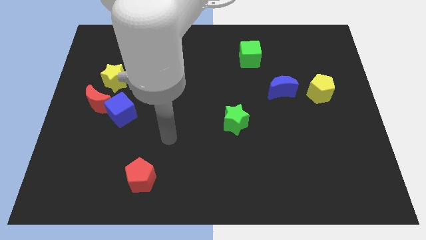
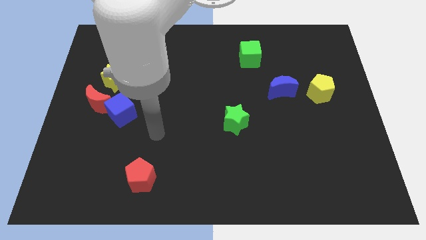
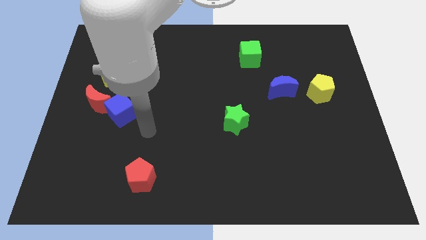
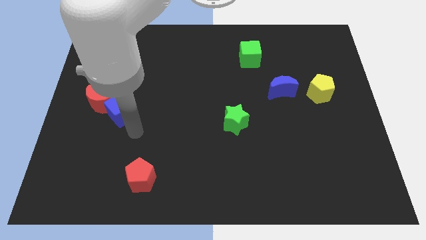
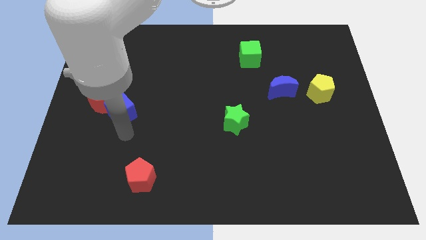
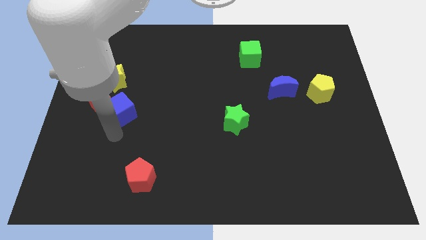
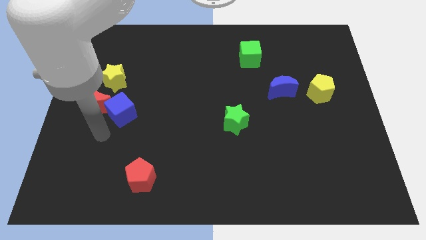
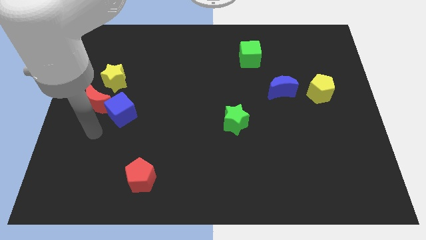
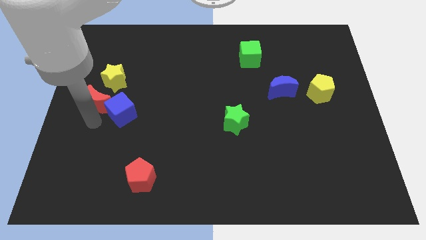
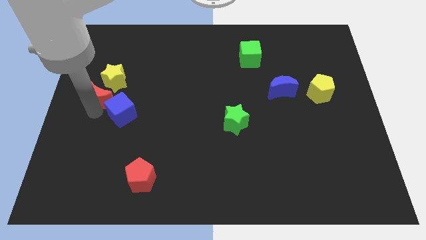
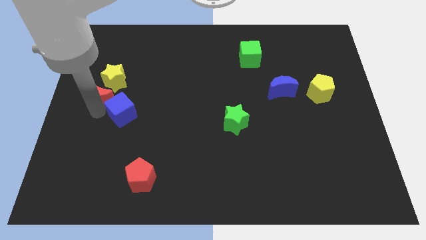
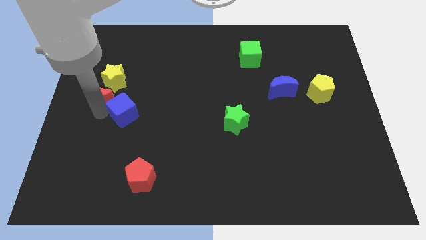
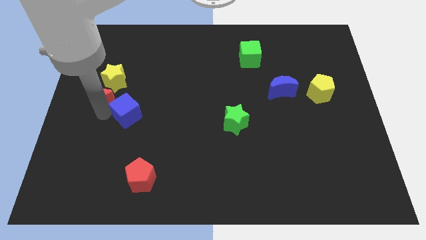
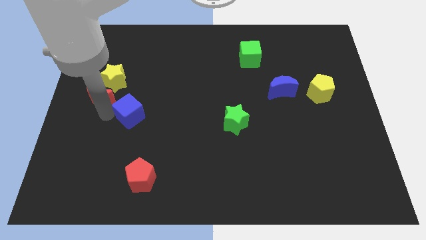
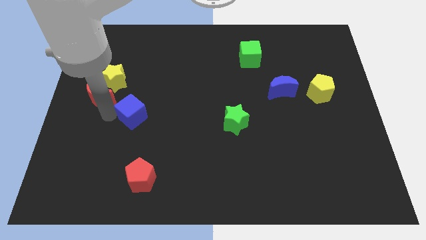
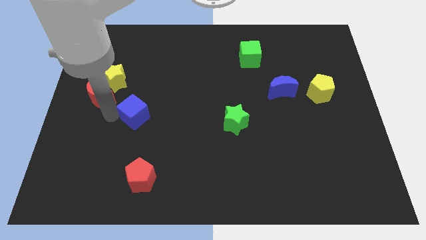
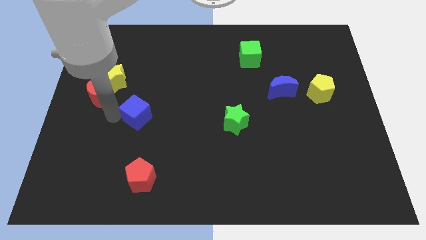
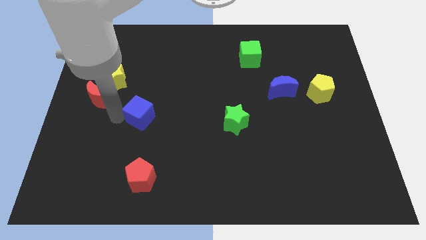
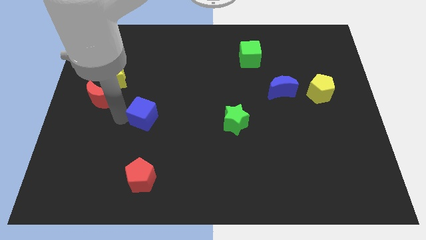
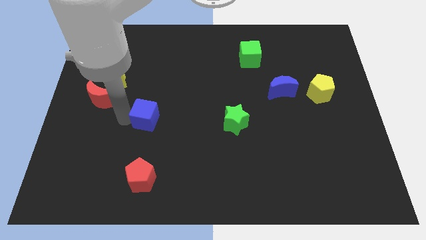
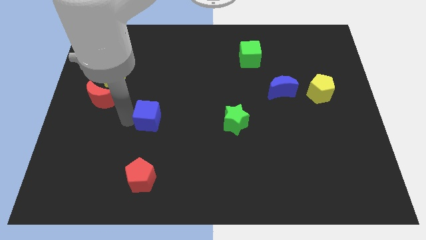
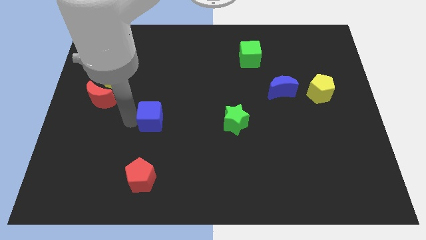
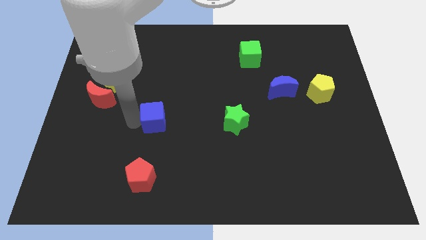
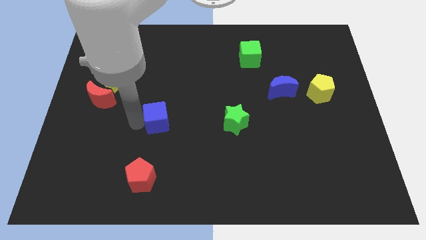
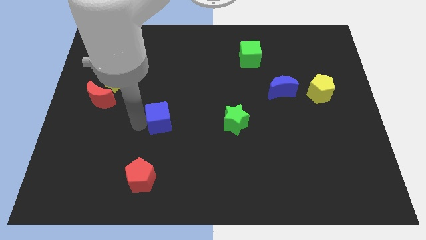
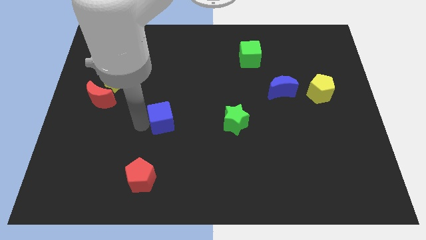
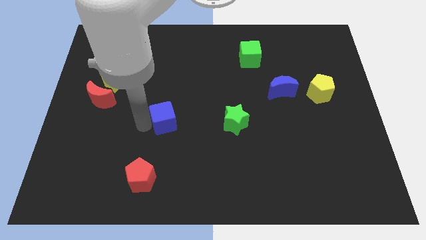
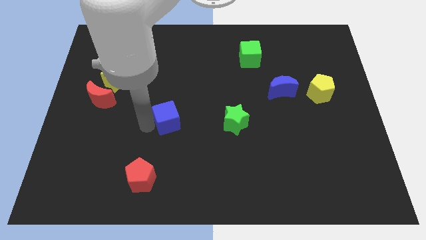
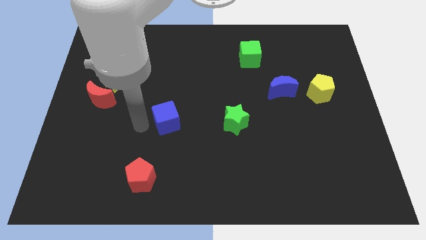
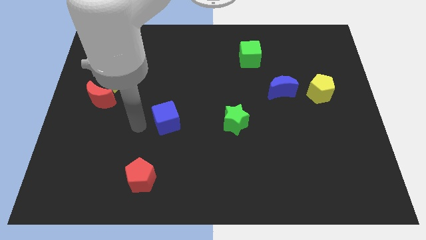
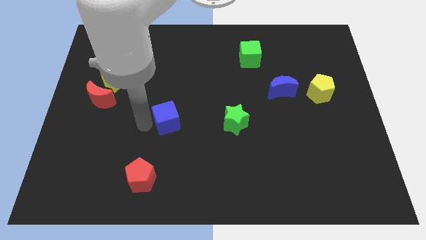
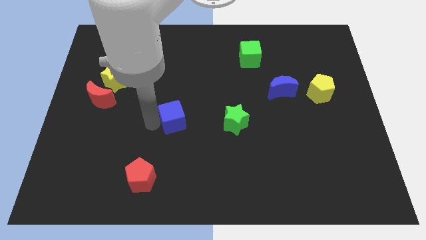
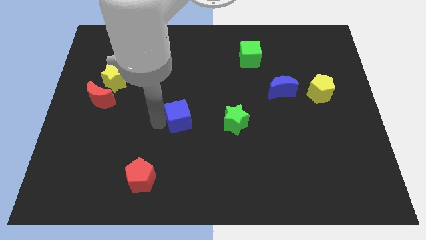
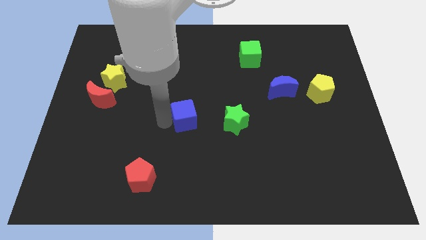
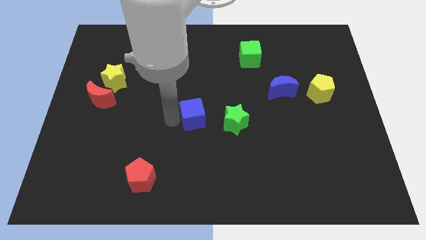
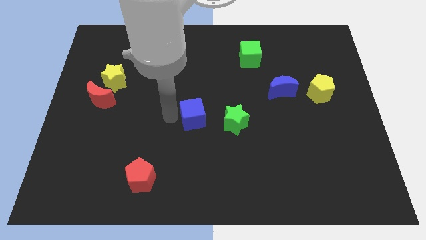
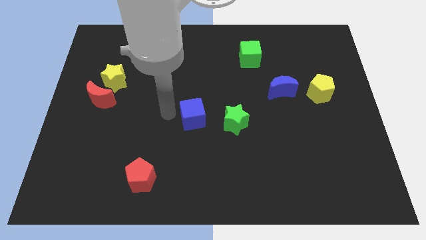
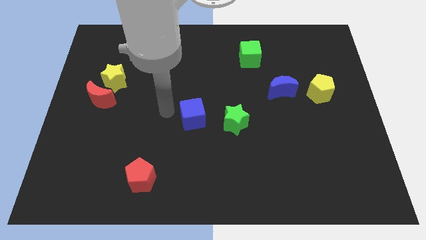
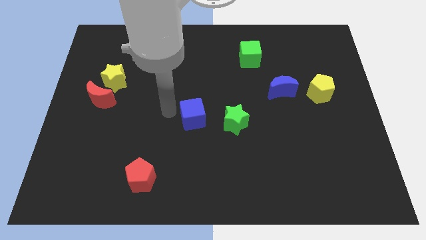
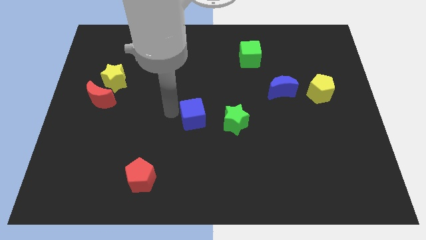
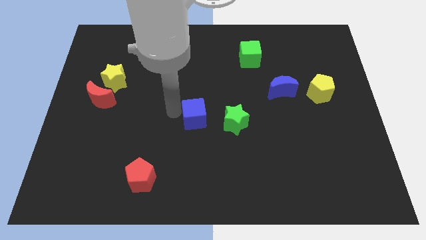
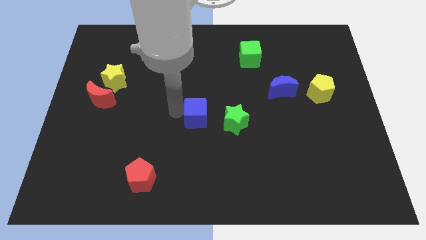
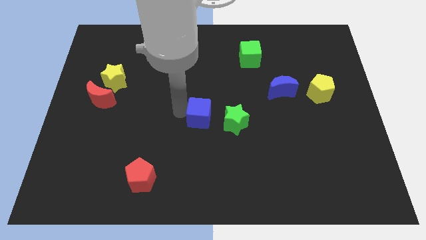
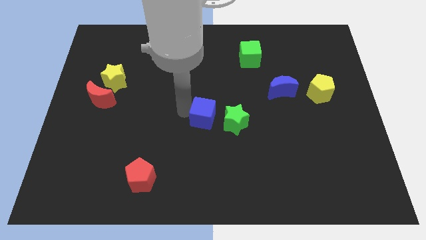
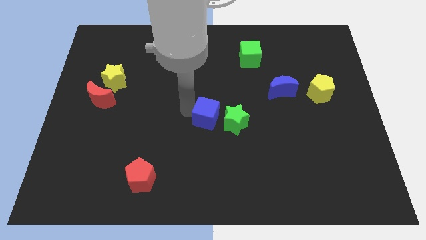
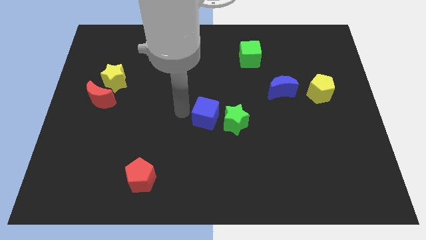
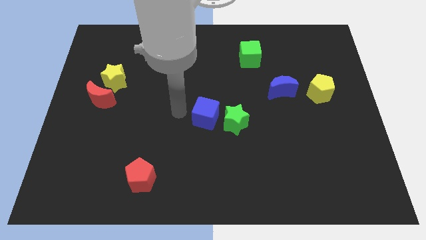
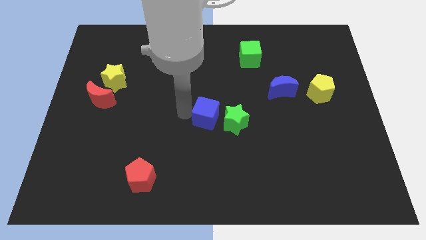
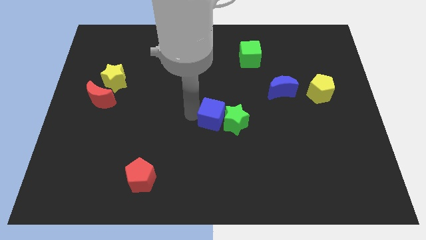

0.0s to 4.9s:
slide the blue cube next to the green star

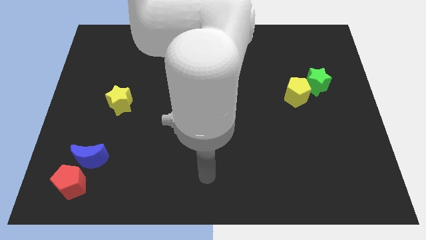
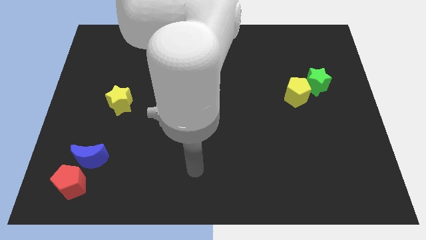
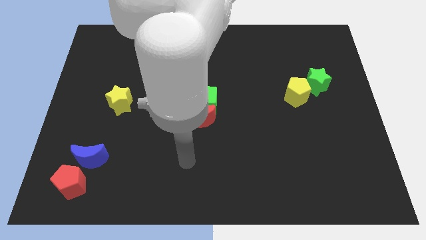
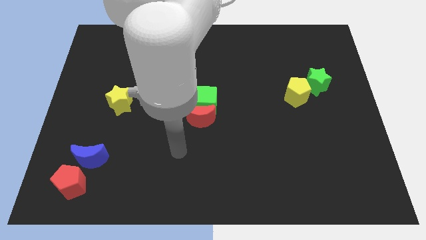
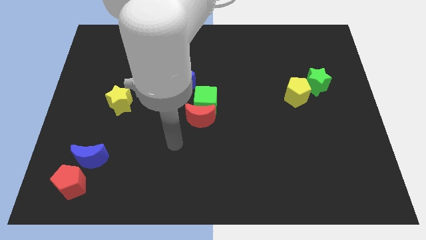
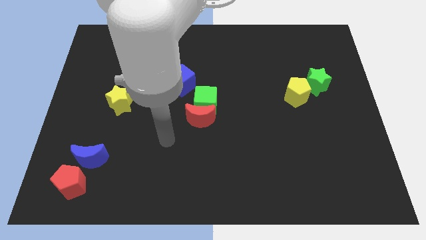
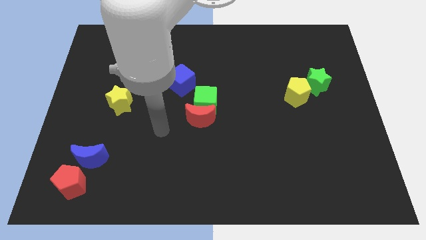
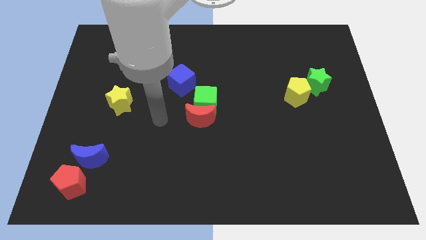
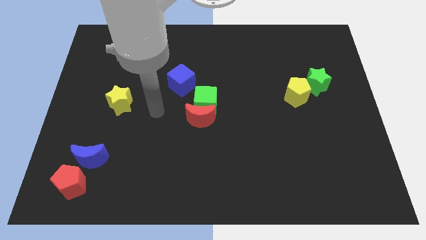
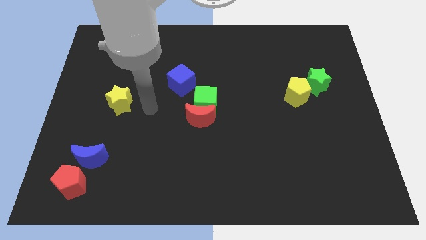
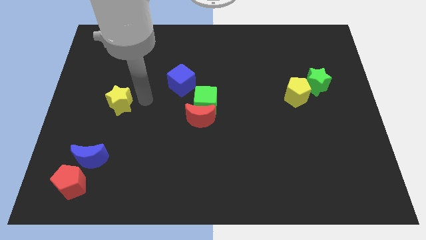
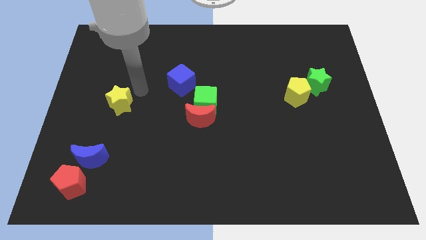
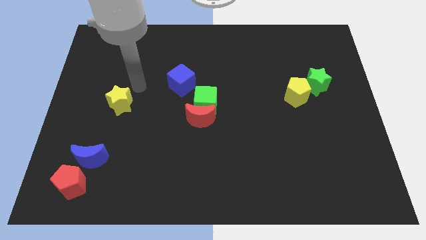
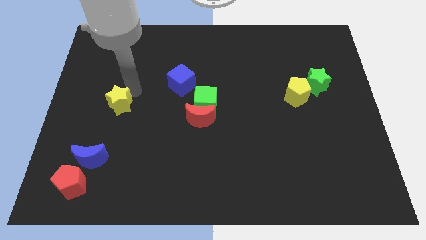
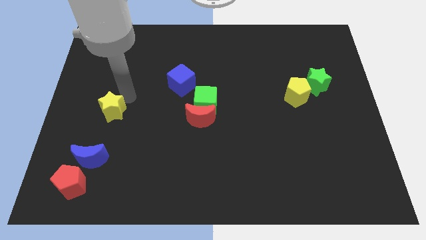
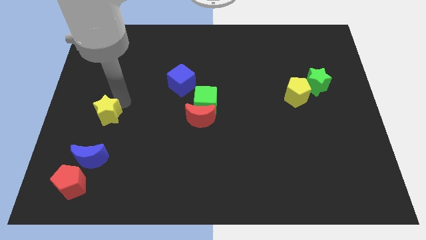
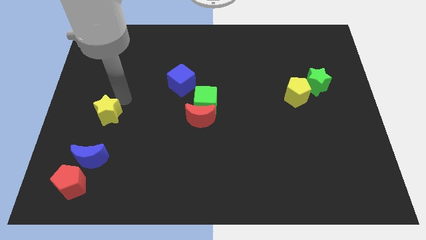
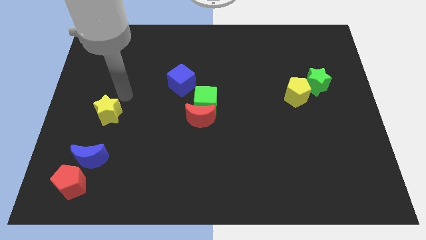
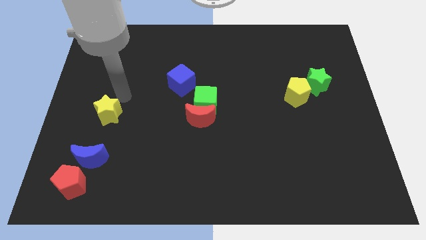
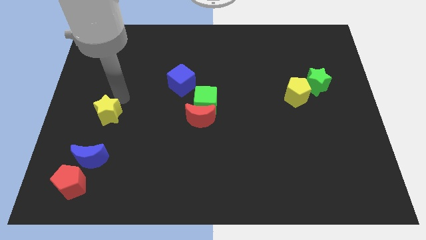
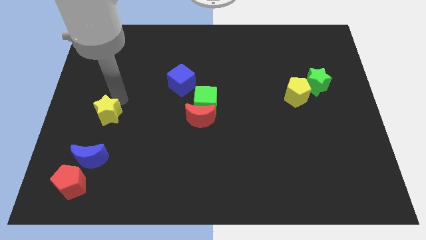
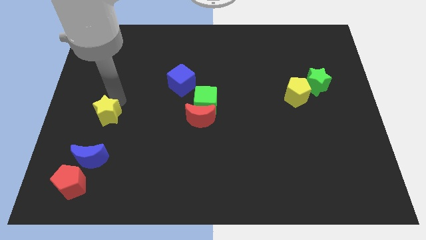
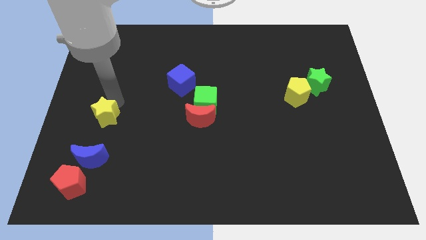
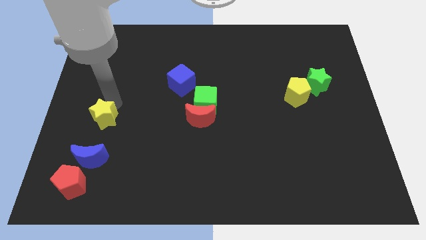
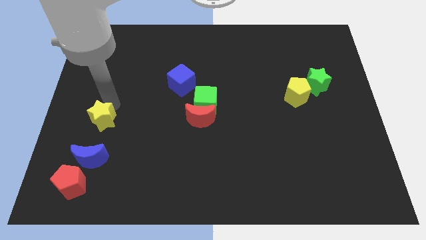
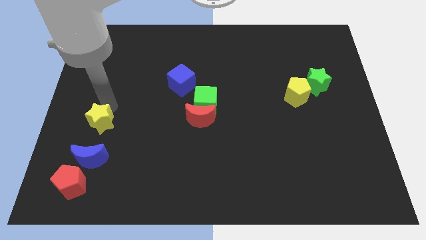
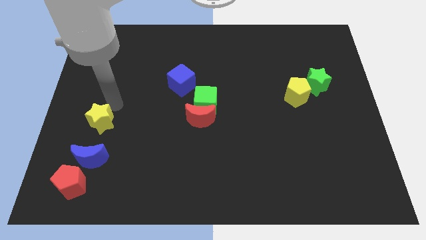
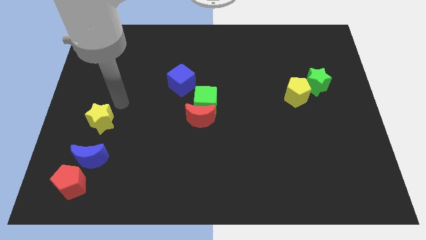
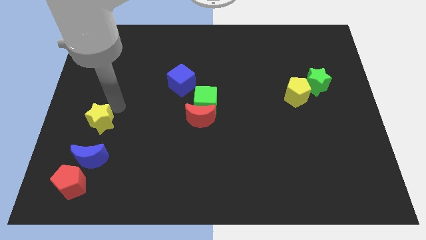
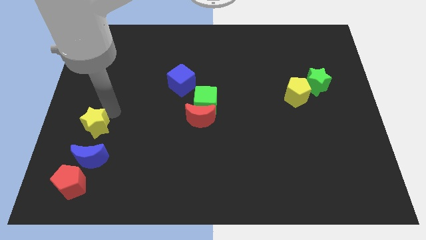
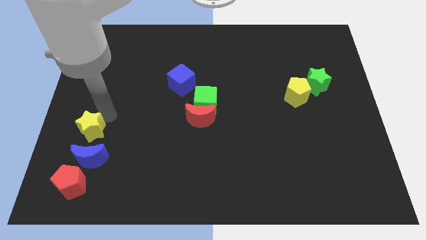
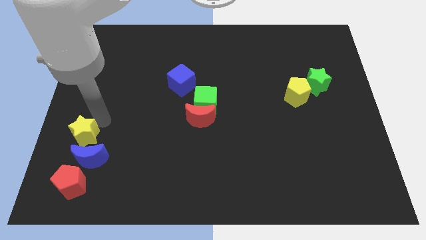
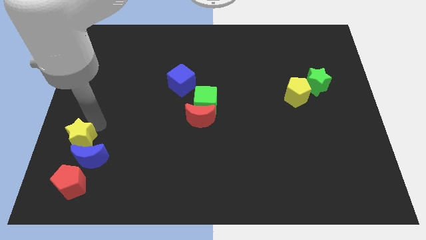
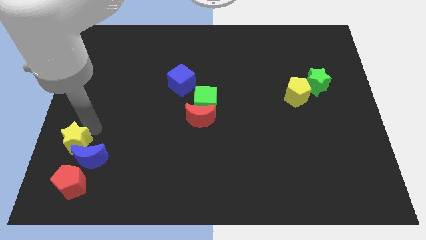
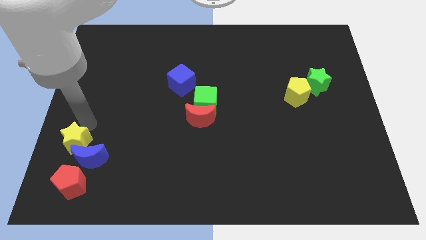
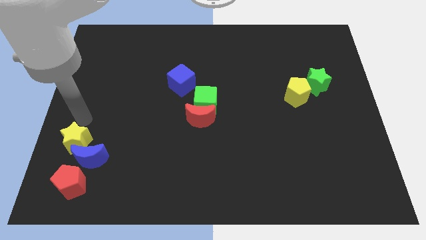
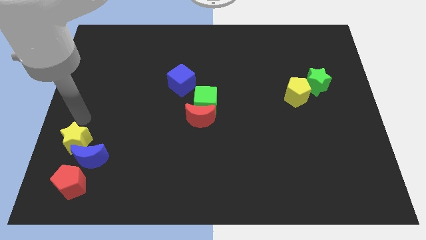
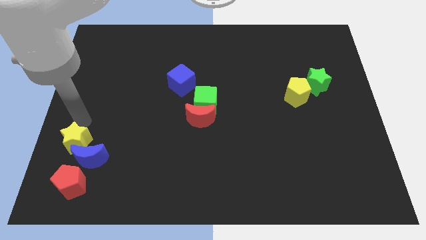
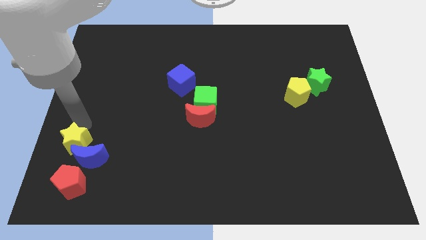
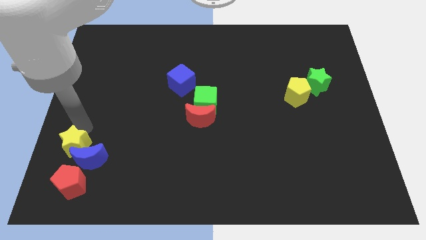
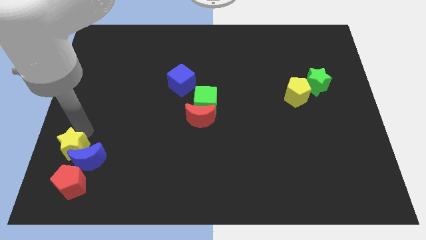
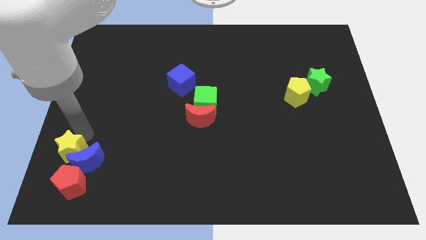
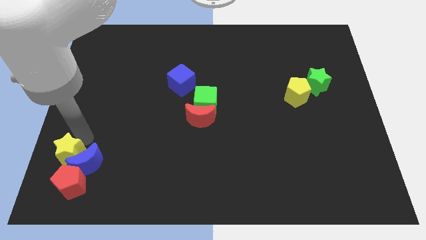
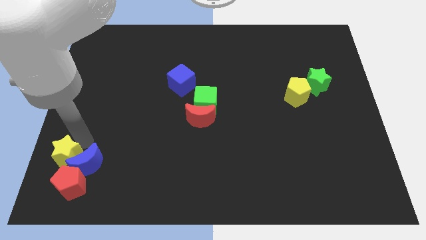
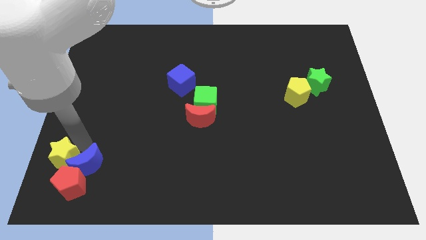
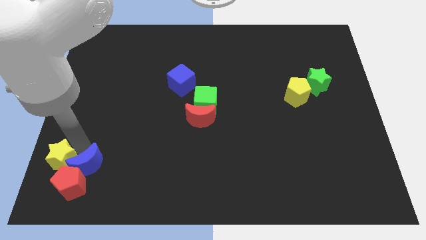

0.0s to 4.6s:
put the yellow star next to the red pentagon
